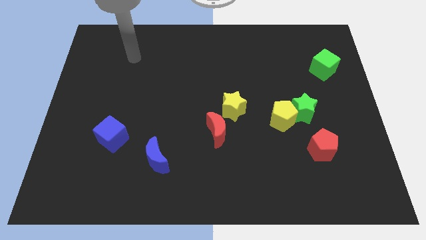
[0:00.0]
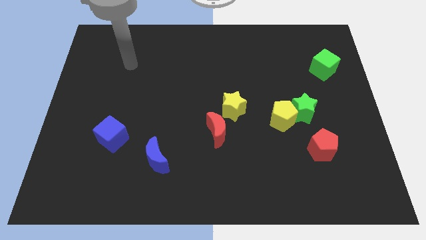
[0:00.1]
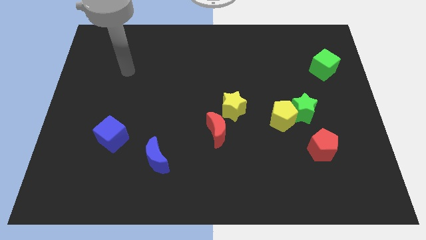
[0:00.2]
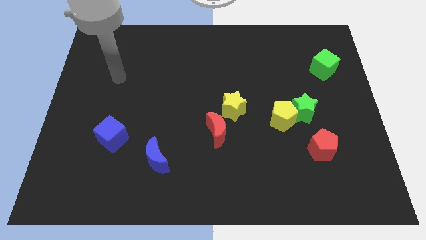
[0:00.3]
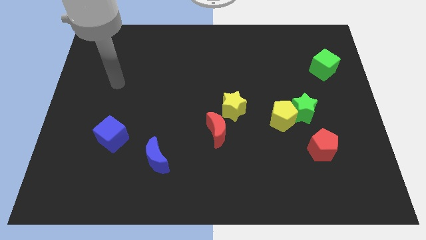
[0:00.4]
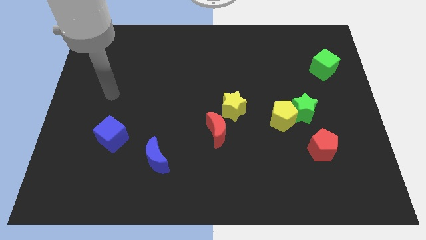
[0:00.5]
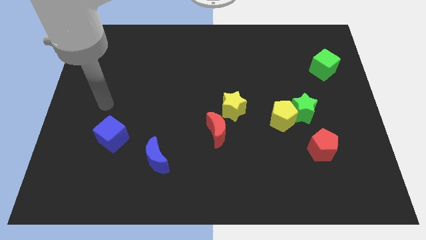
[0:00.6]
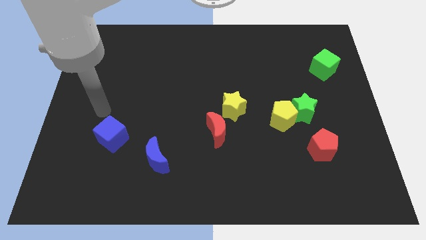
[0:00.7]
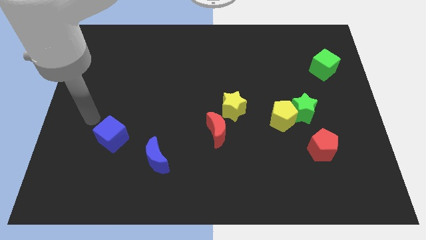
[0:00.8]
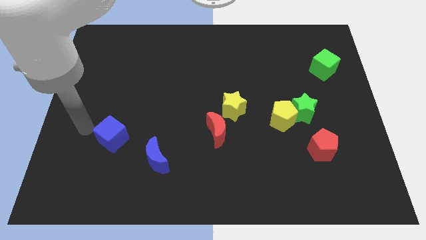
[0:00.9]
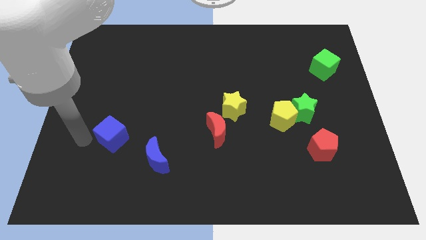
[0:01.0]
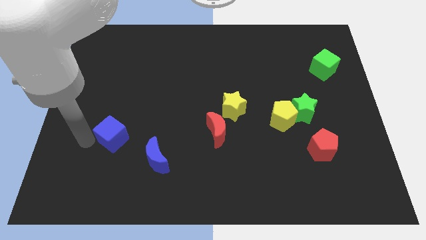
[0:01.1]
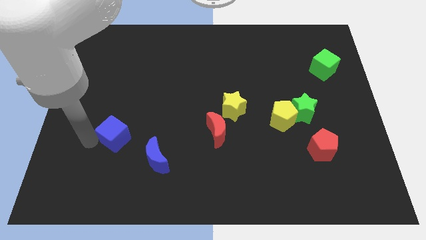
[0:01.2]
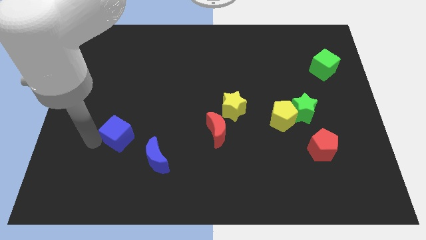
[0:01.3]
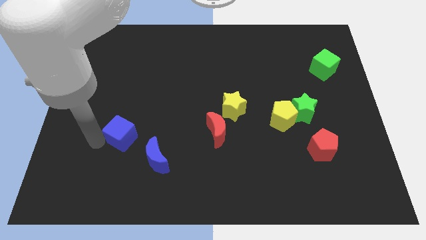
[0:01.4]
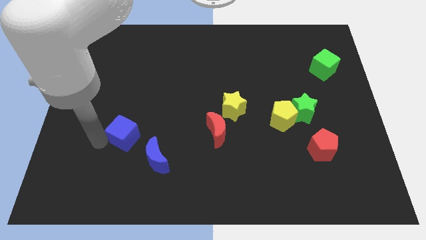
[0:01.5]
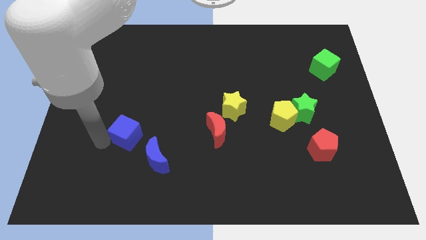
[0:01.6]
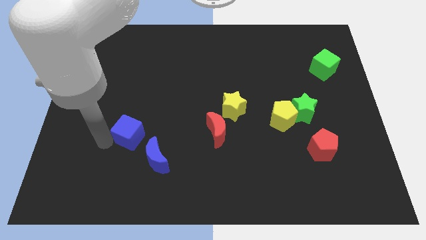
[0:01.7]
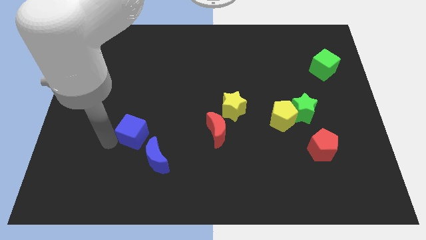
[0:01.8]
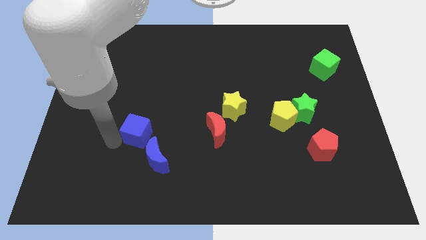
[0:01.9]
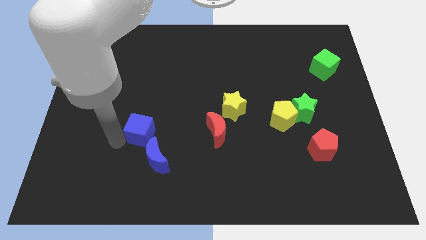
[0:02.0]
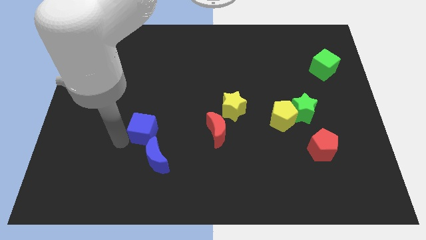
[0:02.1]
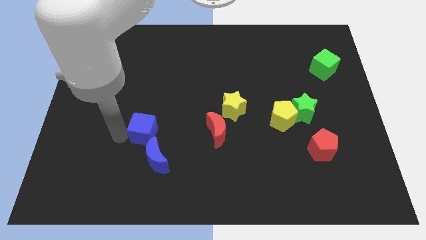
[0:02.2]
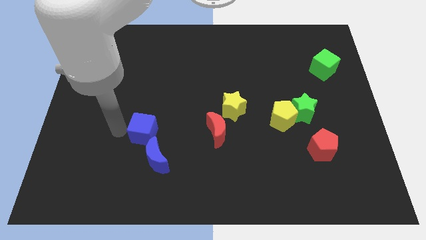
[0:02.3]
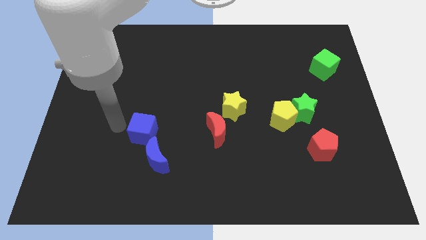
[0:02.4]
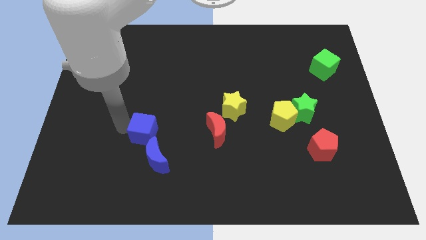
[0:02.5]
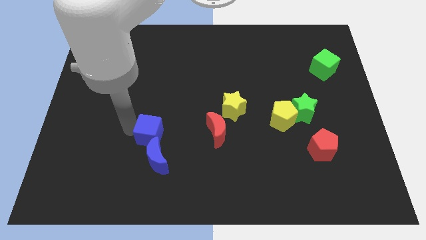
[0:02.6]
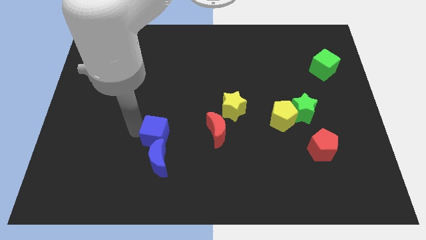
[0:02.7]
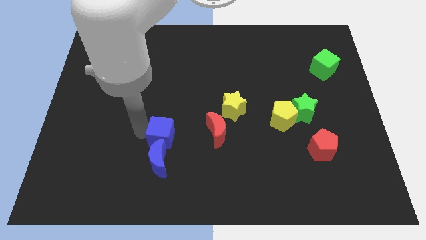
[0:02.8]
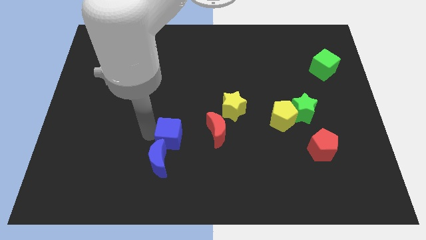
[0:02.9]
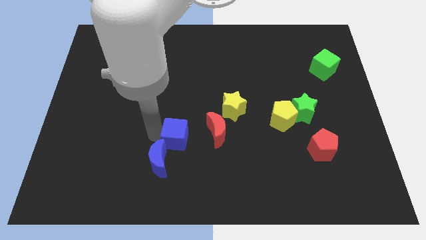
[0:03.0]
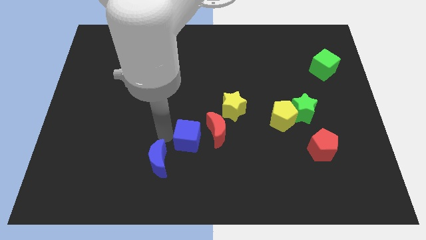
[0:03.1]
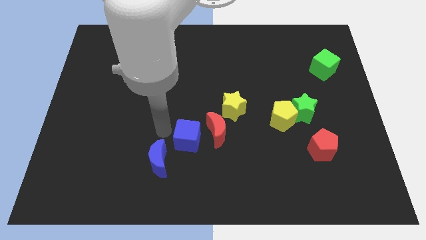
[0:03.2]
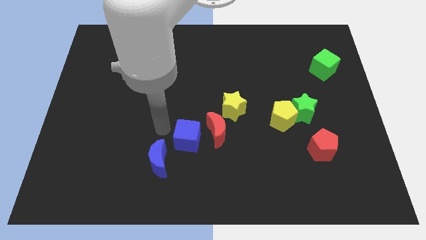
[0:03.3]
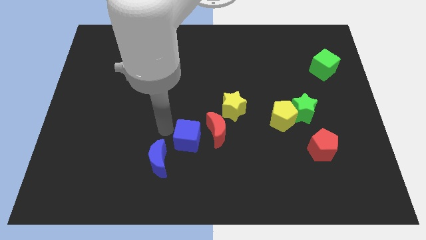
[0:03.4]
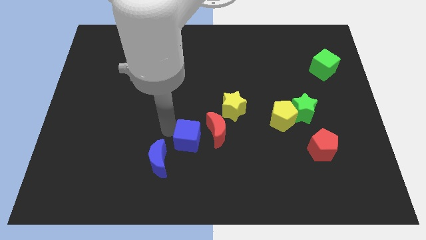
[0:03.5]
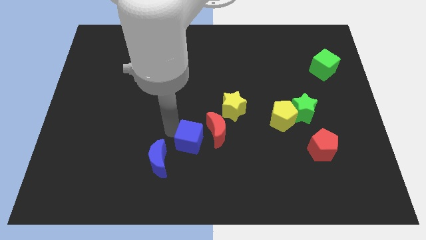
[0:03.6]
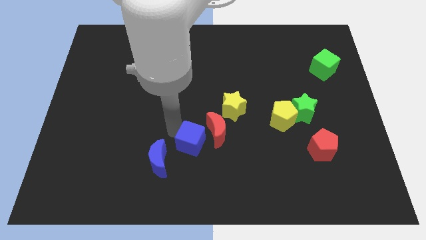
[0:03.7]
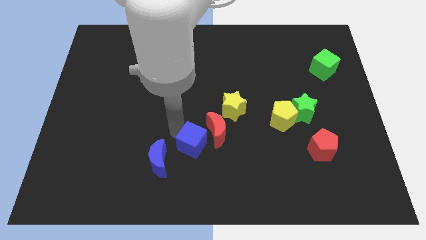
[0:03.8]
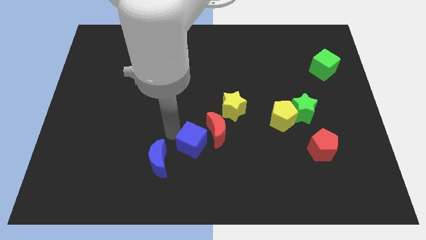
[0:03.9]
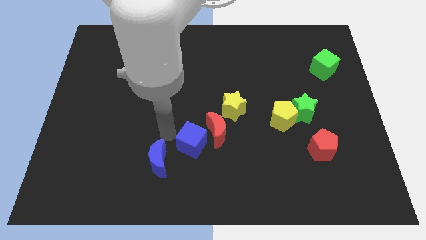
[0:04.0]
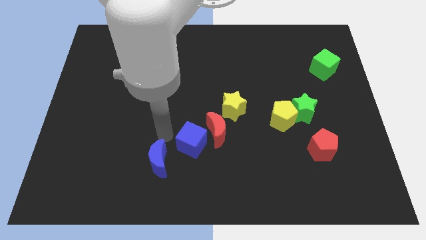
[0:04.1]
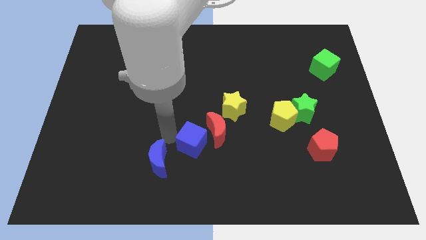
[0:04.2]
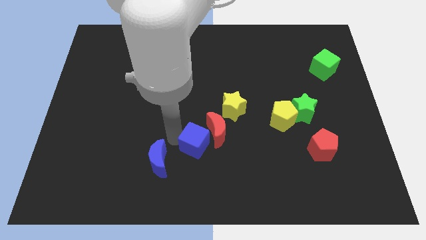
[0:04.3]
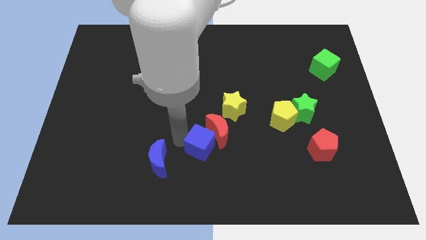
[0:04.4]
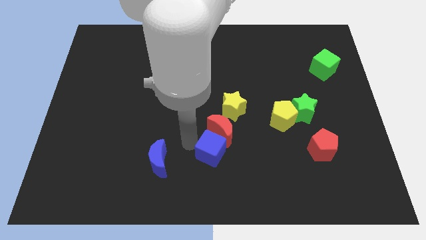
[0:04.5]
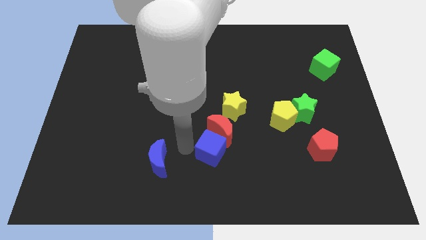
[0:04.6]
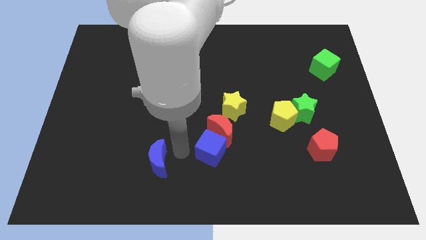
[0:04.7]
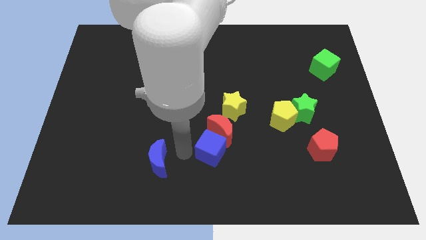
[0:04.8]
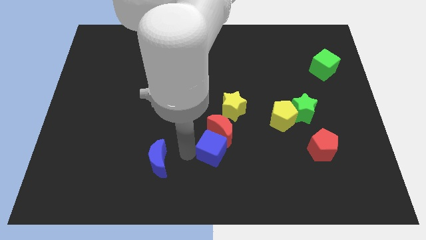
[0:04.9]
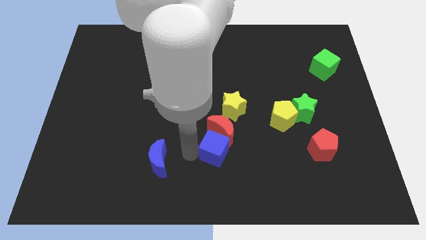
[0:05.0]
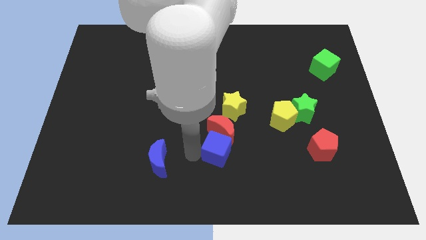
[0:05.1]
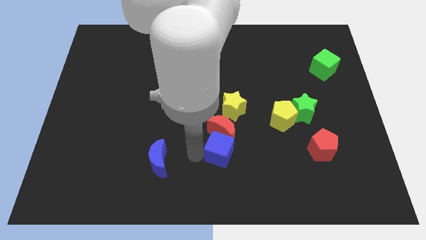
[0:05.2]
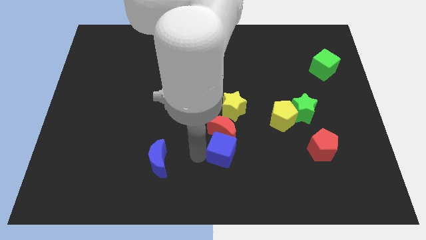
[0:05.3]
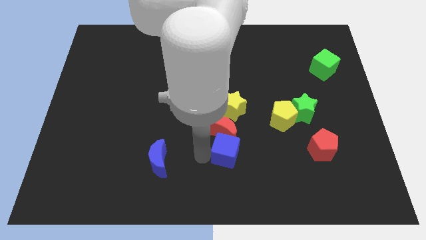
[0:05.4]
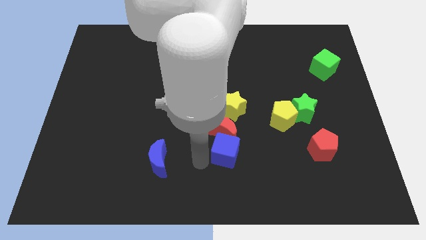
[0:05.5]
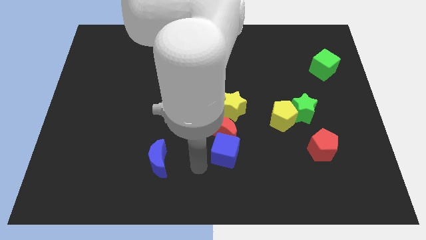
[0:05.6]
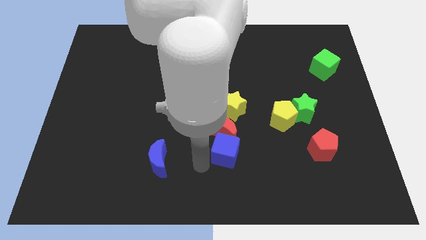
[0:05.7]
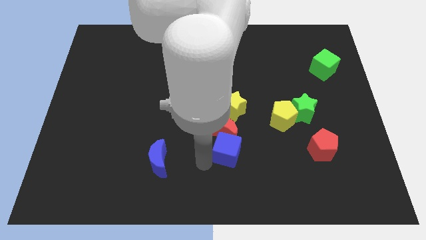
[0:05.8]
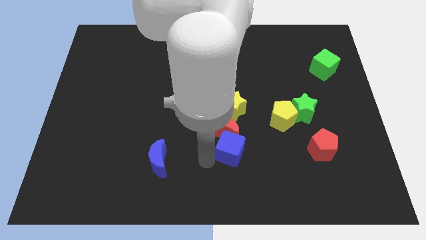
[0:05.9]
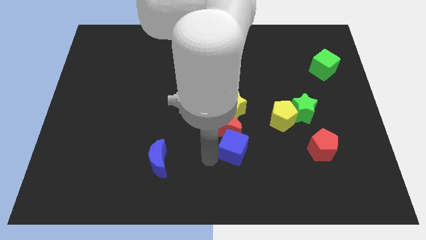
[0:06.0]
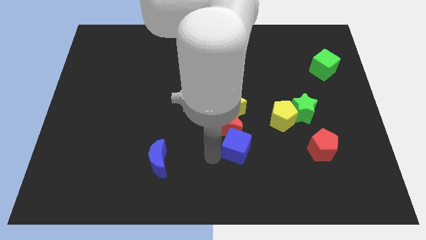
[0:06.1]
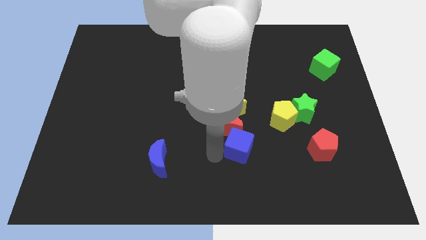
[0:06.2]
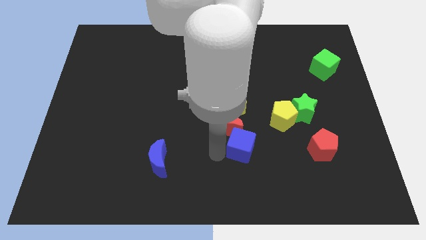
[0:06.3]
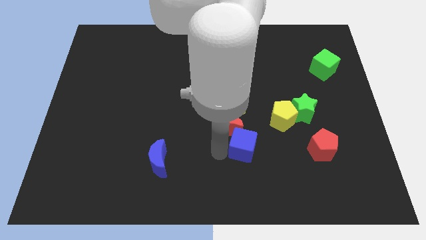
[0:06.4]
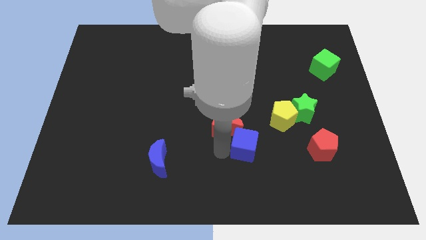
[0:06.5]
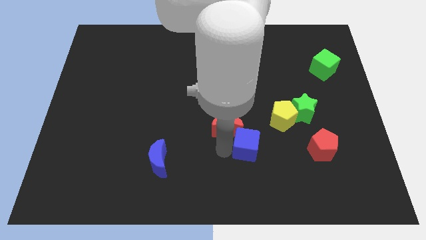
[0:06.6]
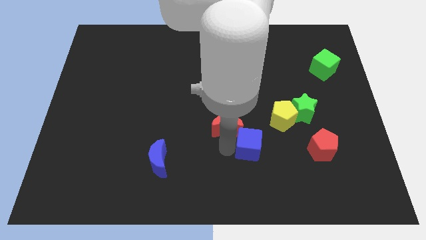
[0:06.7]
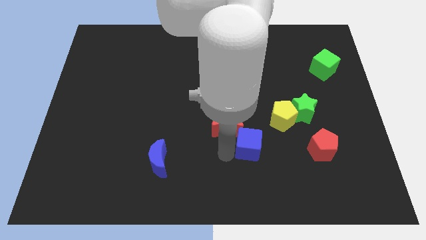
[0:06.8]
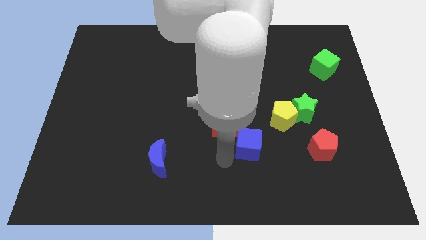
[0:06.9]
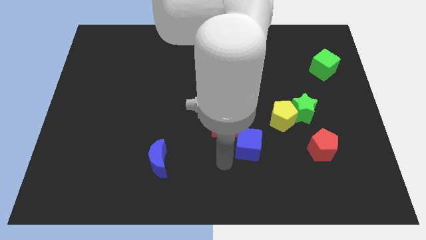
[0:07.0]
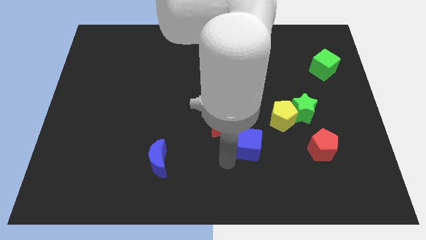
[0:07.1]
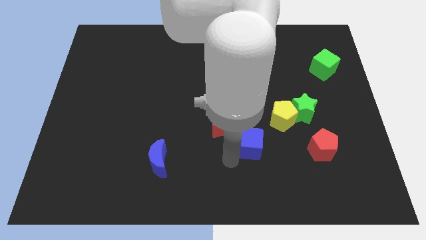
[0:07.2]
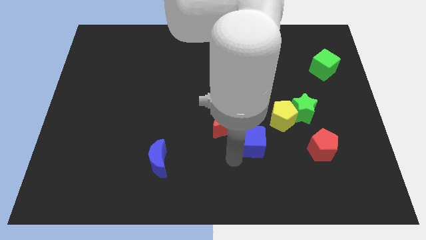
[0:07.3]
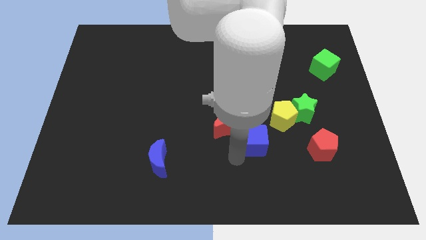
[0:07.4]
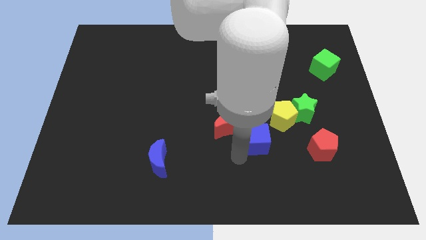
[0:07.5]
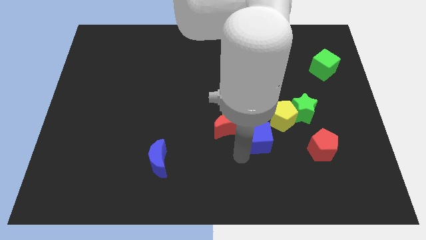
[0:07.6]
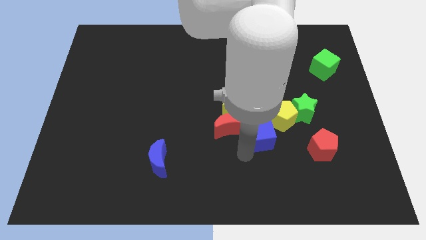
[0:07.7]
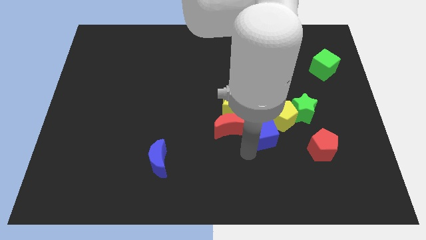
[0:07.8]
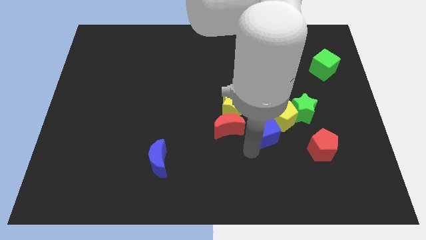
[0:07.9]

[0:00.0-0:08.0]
push the blue cube next to the yellow pentagon
